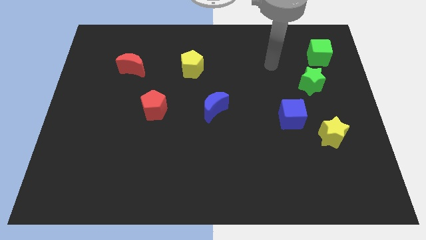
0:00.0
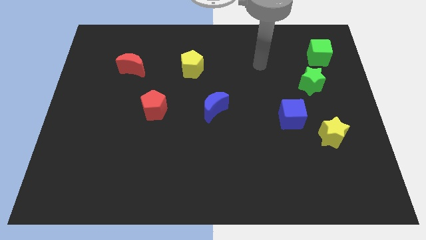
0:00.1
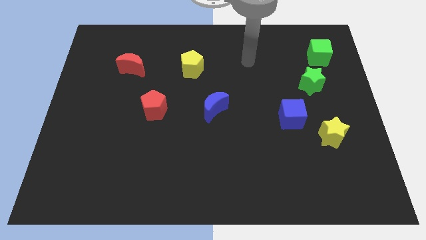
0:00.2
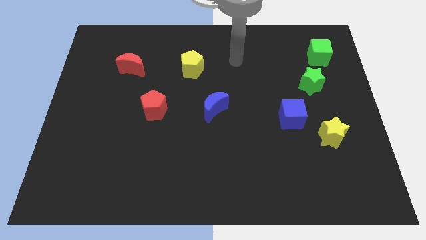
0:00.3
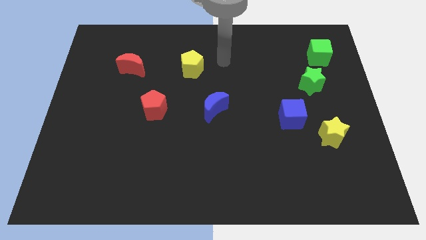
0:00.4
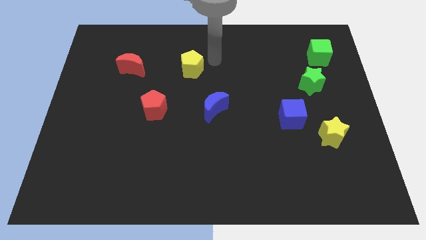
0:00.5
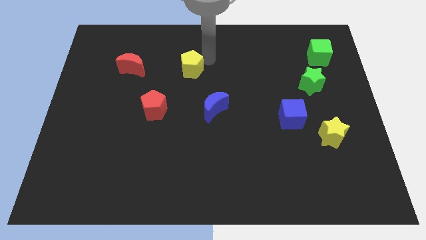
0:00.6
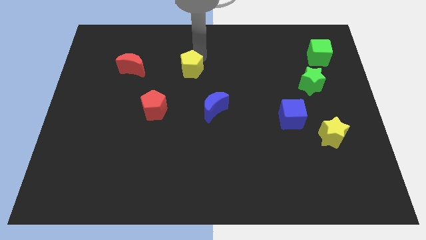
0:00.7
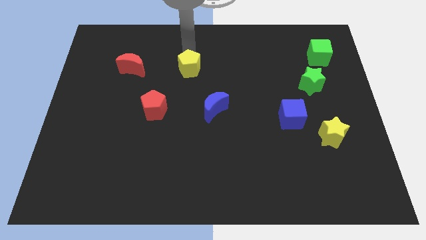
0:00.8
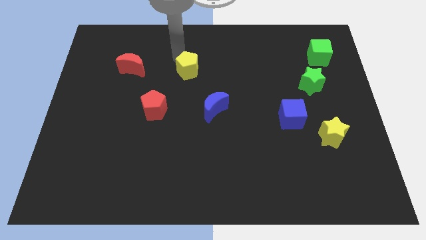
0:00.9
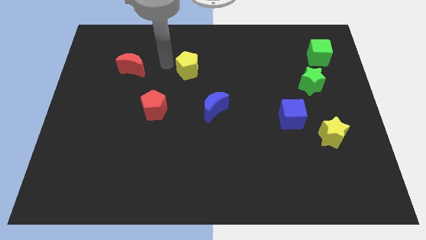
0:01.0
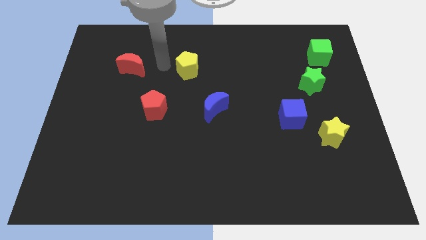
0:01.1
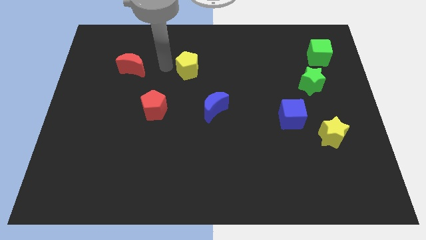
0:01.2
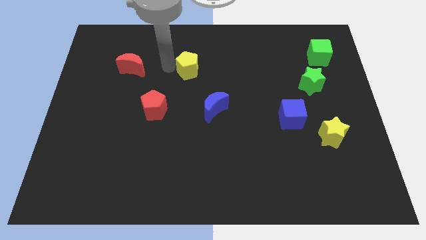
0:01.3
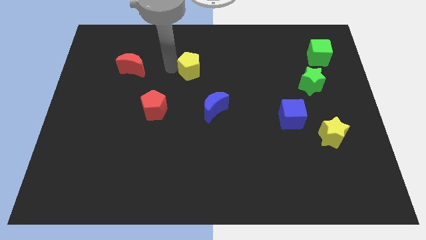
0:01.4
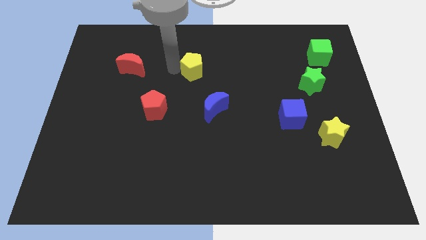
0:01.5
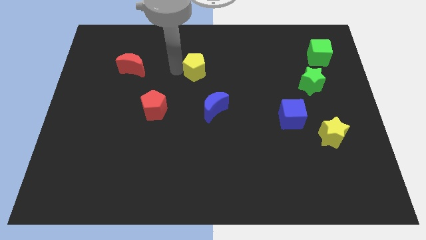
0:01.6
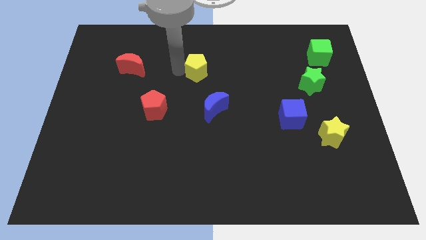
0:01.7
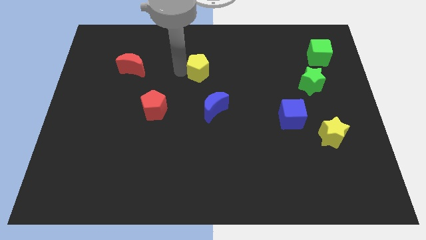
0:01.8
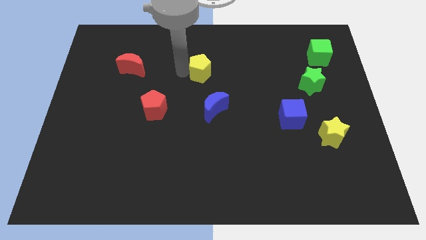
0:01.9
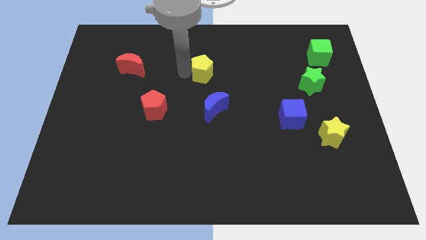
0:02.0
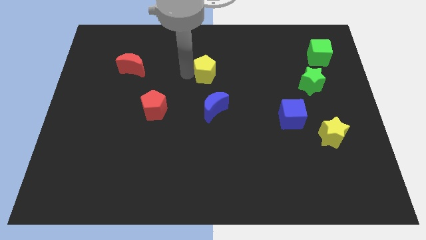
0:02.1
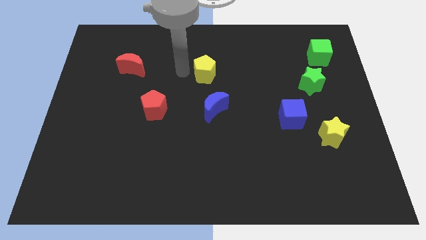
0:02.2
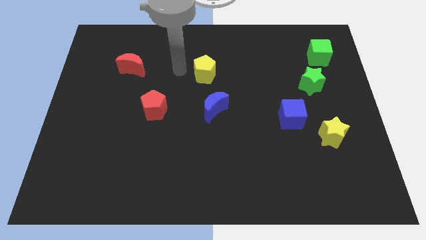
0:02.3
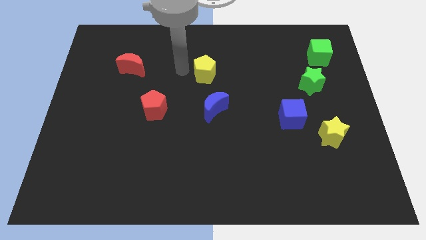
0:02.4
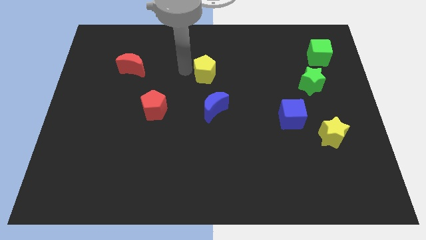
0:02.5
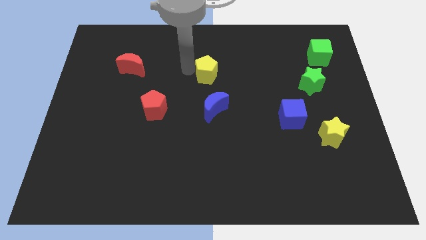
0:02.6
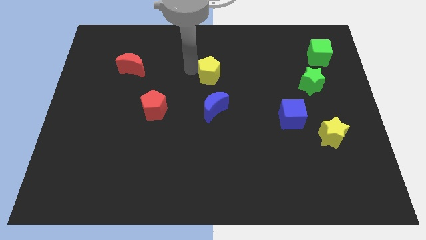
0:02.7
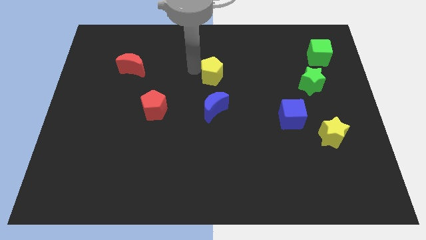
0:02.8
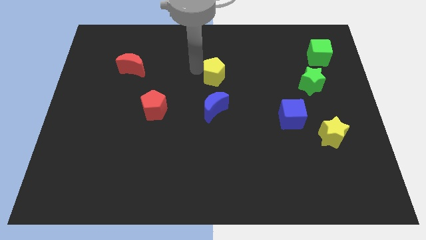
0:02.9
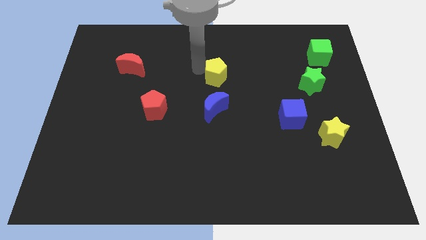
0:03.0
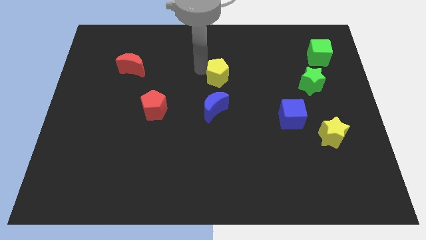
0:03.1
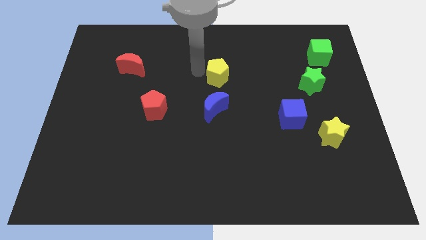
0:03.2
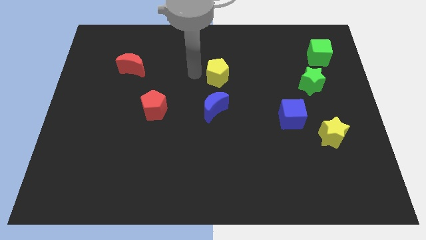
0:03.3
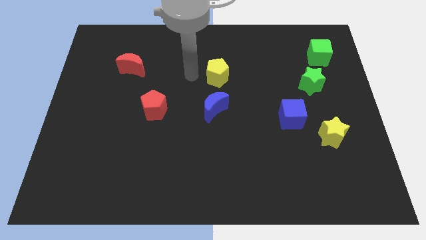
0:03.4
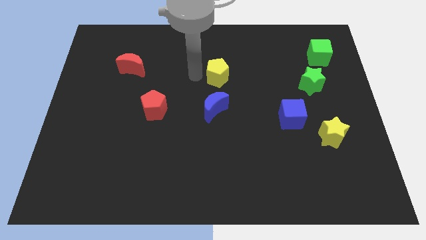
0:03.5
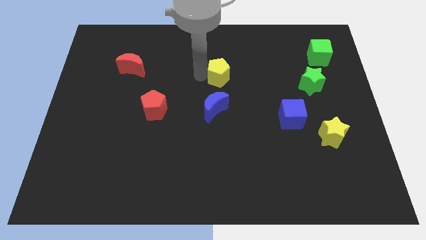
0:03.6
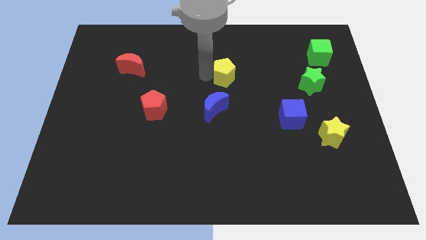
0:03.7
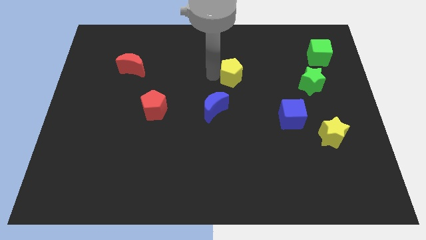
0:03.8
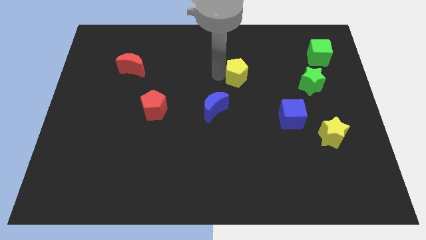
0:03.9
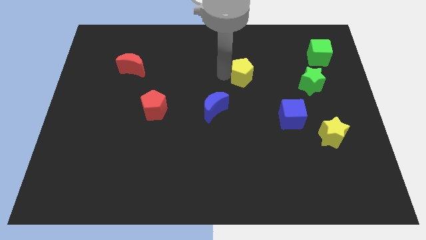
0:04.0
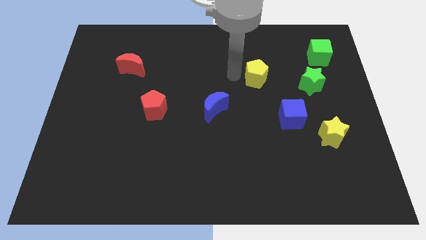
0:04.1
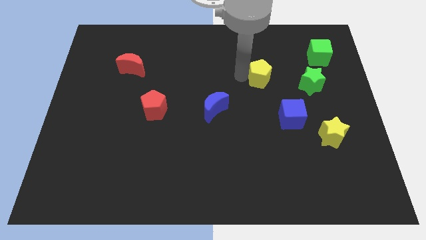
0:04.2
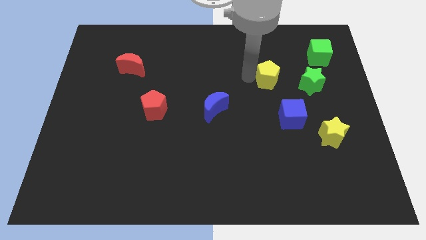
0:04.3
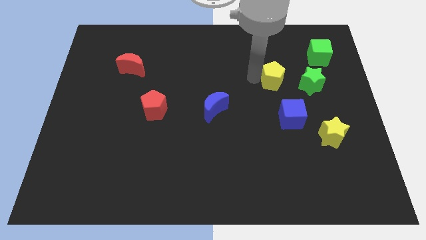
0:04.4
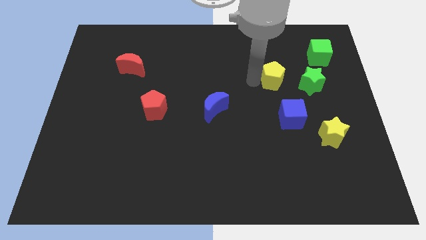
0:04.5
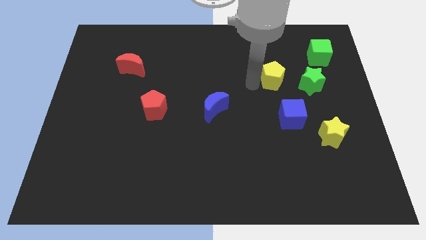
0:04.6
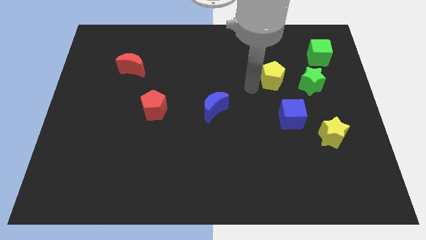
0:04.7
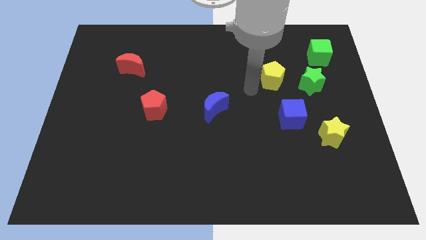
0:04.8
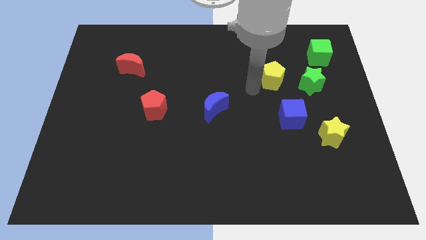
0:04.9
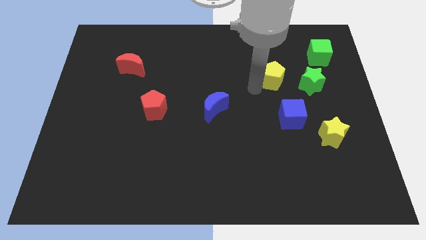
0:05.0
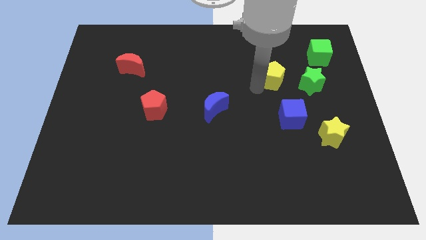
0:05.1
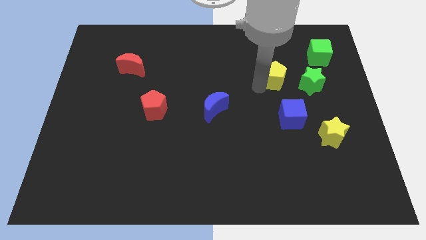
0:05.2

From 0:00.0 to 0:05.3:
move the yellow pentagon right

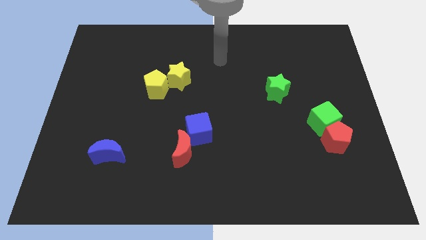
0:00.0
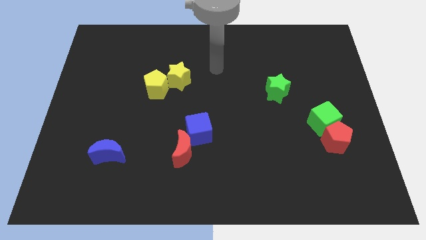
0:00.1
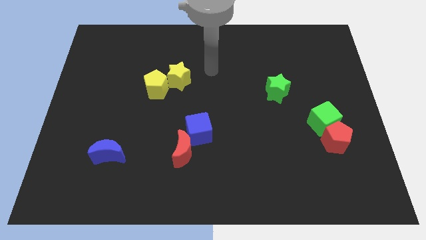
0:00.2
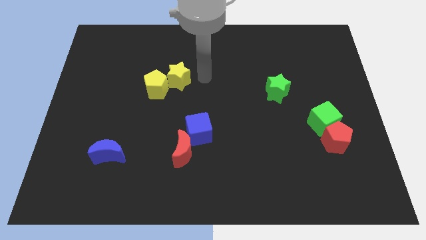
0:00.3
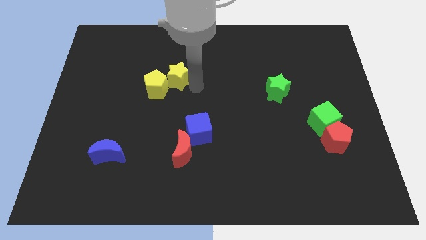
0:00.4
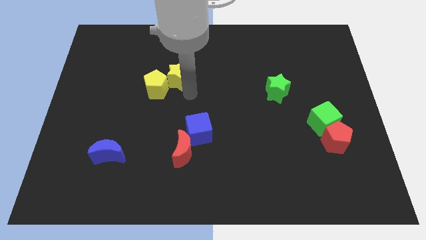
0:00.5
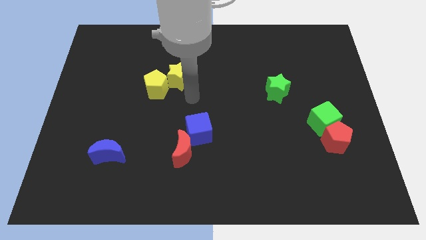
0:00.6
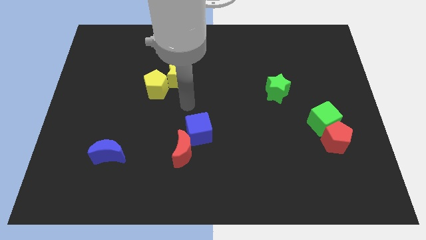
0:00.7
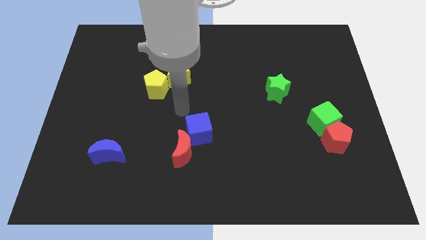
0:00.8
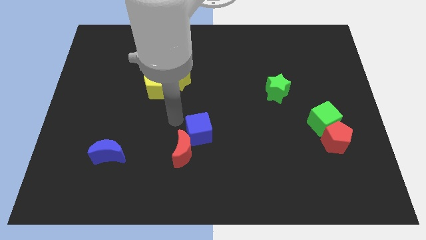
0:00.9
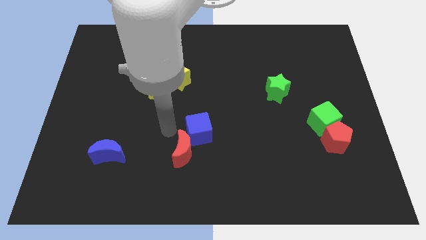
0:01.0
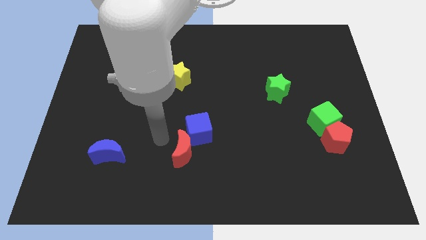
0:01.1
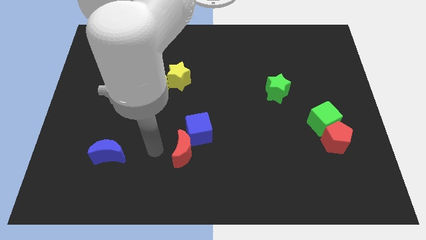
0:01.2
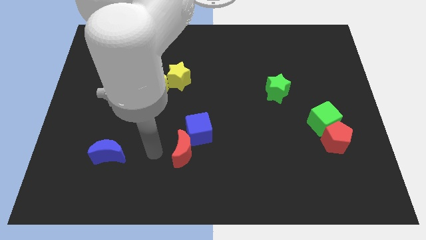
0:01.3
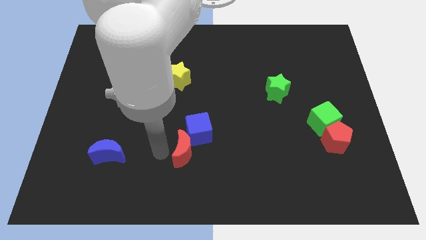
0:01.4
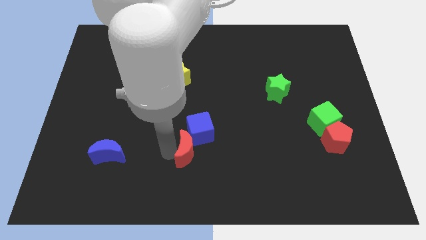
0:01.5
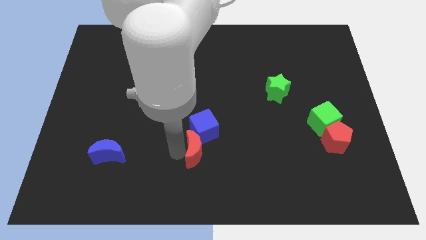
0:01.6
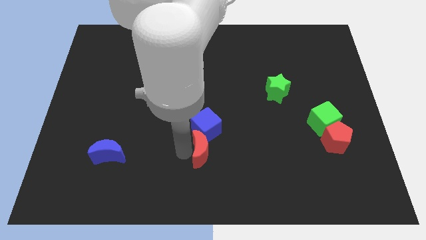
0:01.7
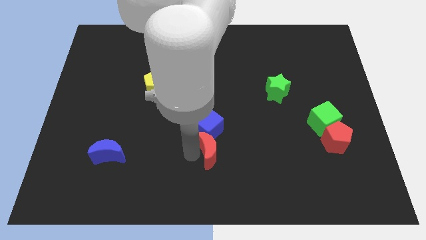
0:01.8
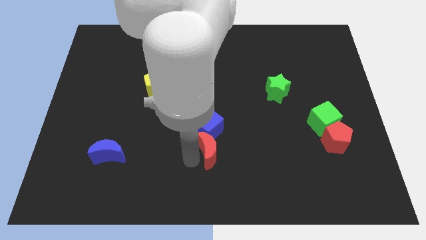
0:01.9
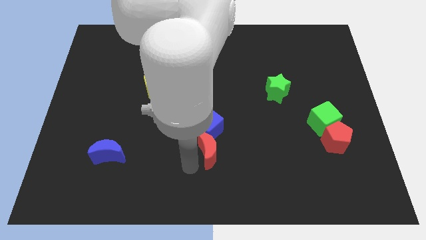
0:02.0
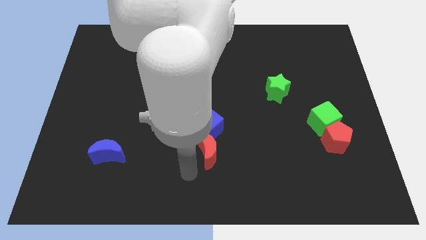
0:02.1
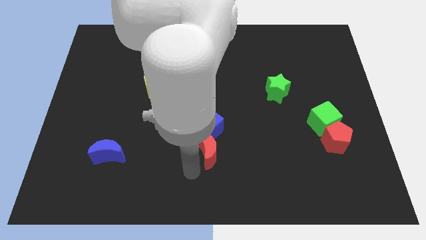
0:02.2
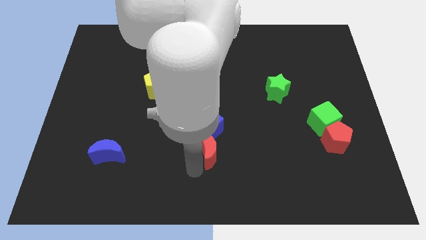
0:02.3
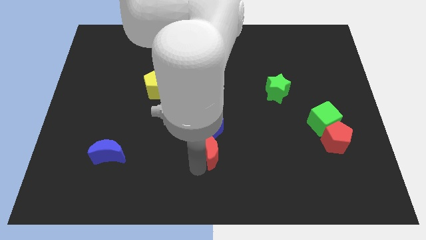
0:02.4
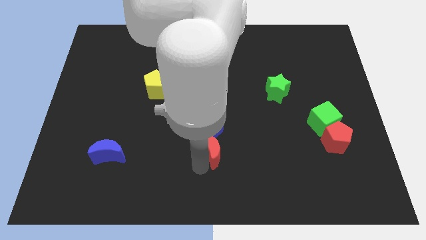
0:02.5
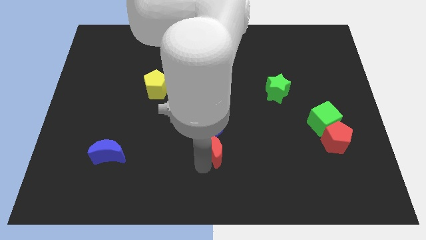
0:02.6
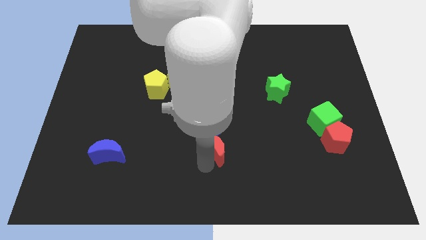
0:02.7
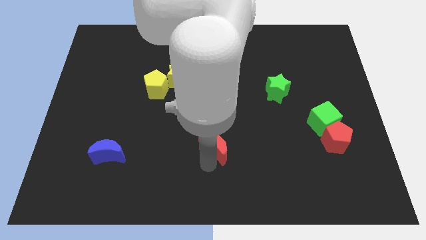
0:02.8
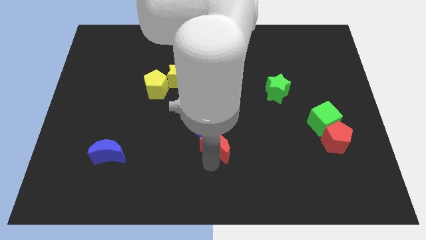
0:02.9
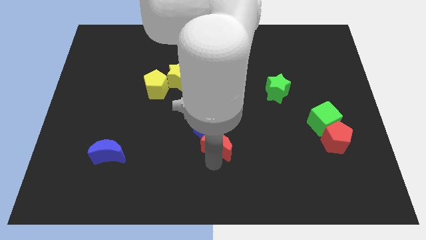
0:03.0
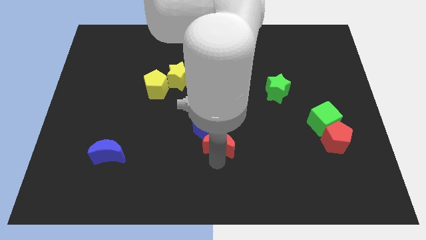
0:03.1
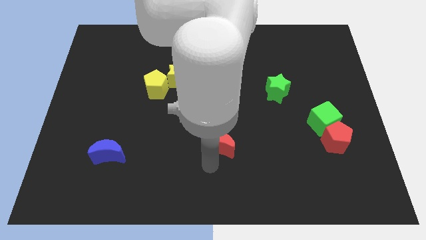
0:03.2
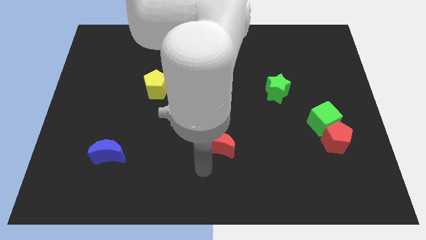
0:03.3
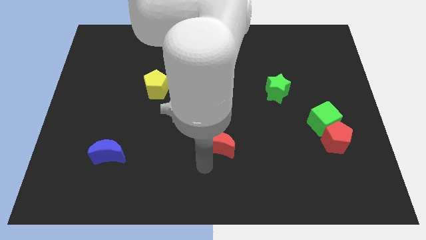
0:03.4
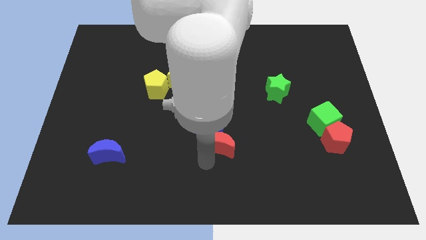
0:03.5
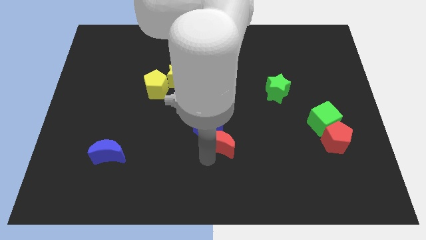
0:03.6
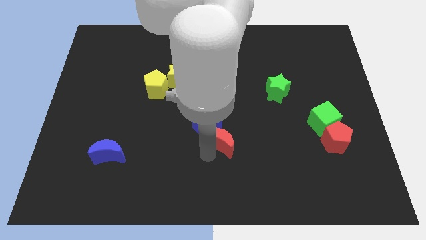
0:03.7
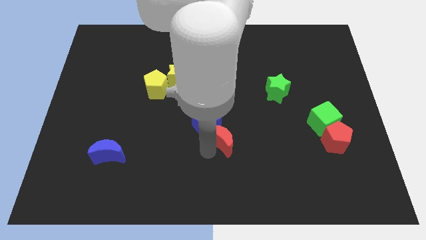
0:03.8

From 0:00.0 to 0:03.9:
slide the red moon upwards and to the right a little bit
